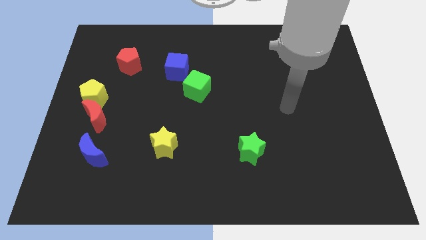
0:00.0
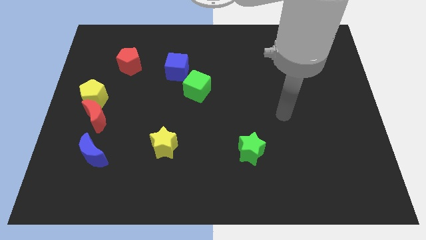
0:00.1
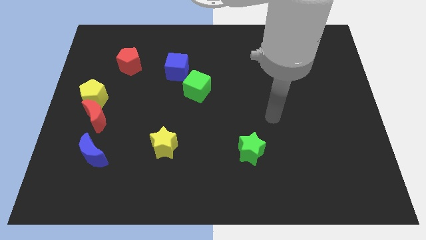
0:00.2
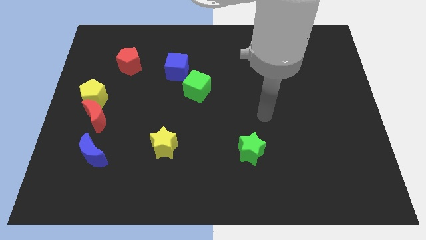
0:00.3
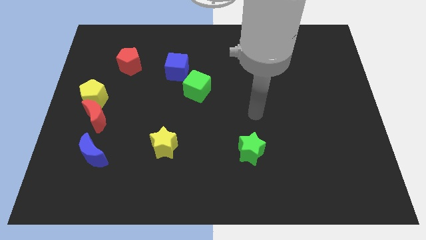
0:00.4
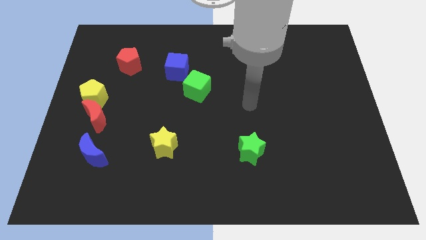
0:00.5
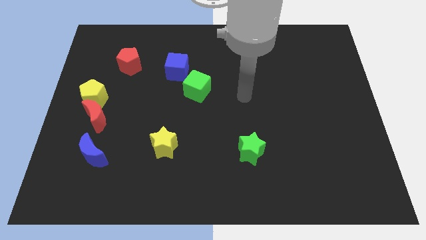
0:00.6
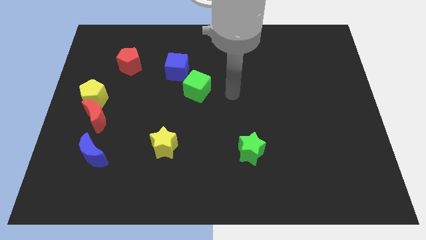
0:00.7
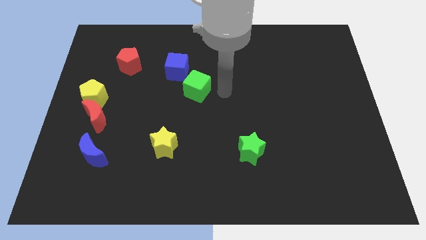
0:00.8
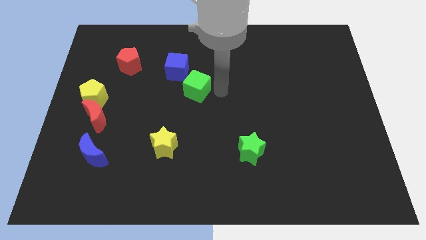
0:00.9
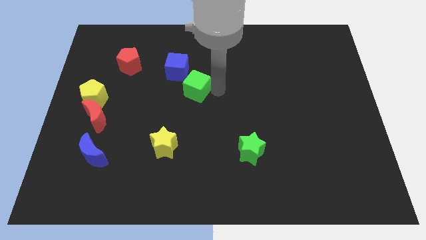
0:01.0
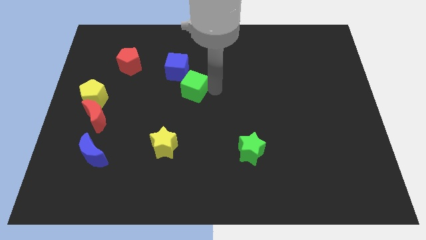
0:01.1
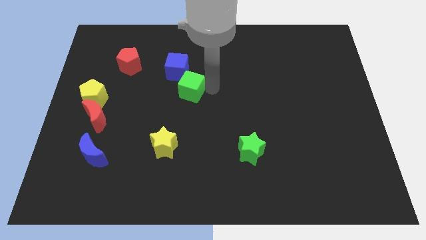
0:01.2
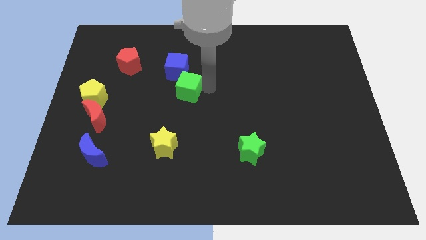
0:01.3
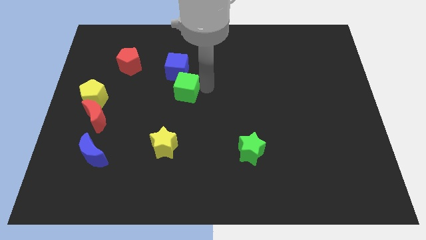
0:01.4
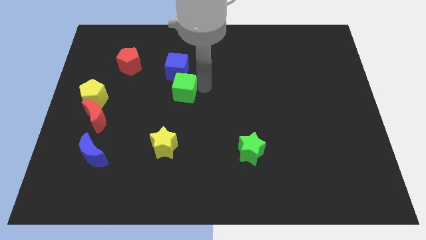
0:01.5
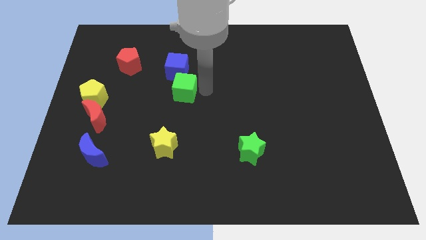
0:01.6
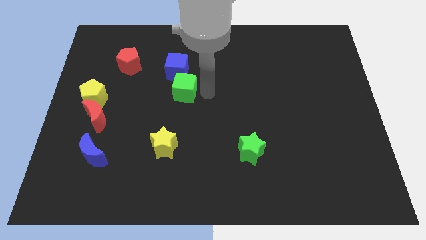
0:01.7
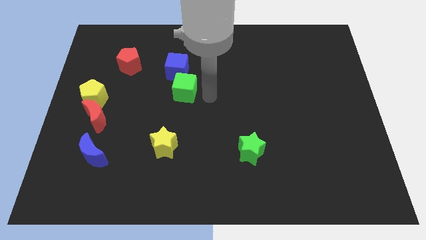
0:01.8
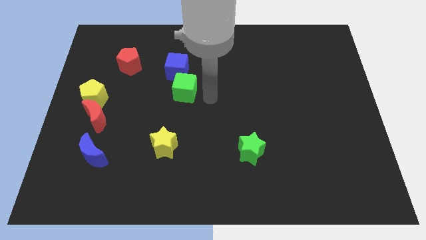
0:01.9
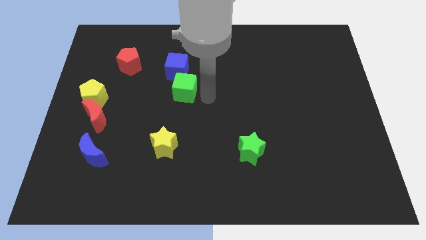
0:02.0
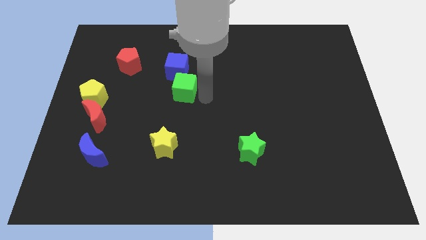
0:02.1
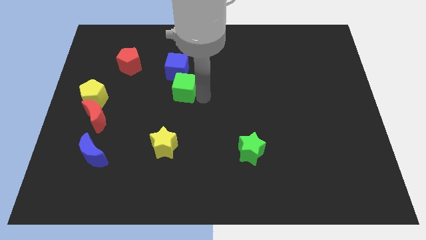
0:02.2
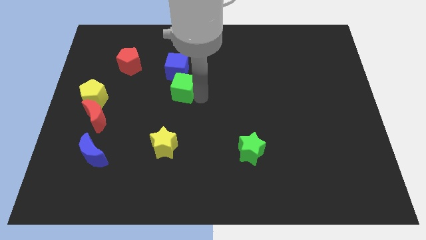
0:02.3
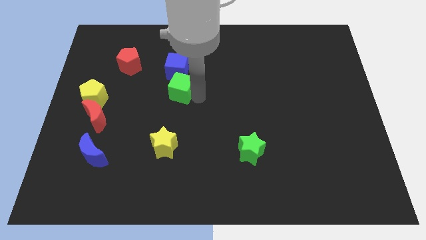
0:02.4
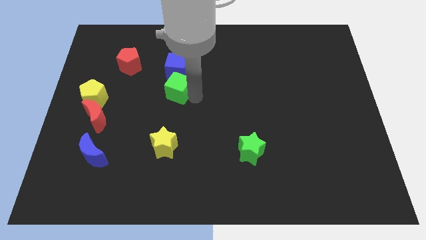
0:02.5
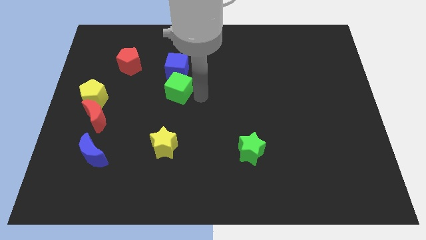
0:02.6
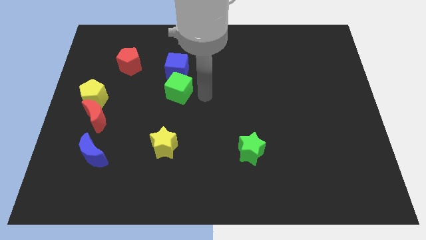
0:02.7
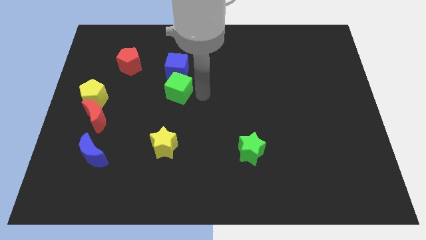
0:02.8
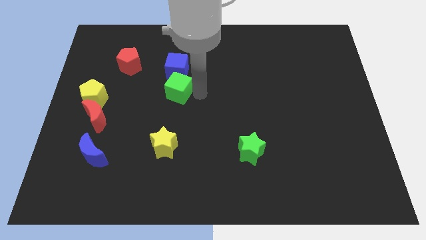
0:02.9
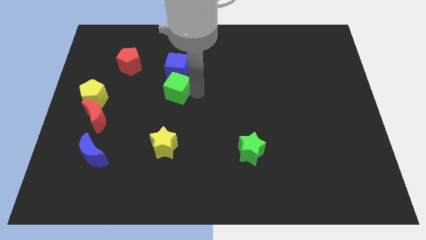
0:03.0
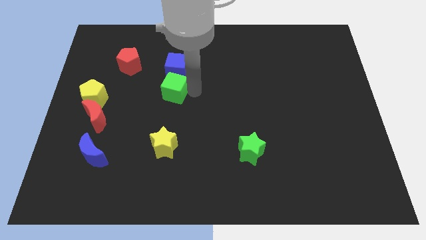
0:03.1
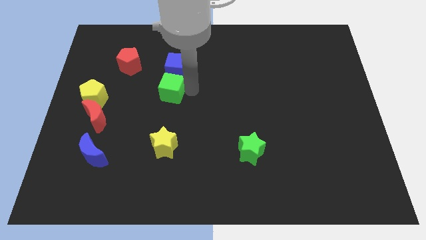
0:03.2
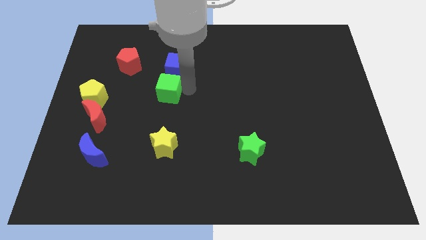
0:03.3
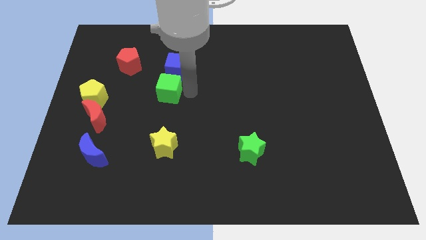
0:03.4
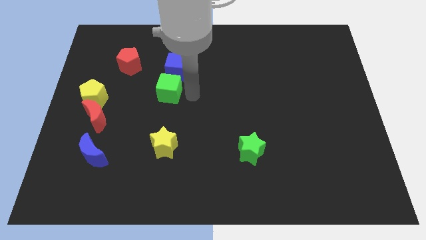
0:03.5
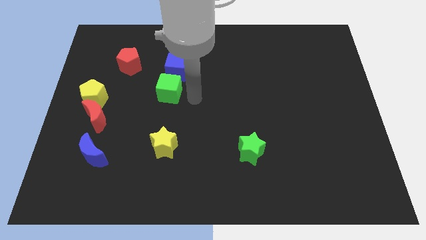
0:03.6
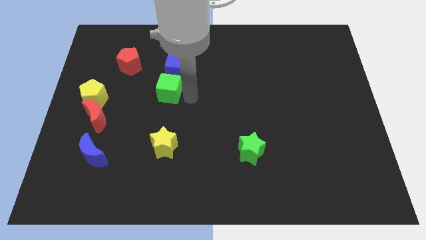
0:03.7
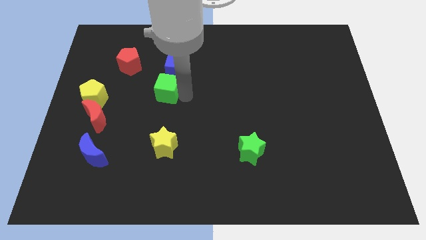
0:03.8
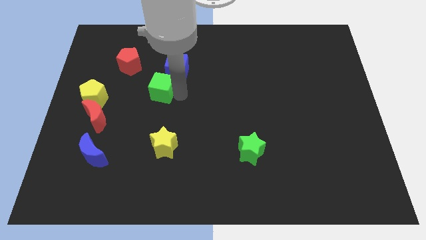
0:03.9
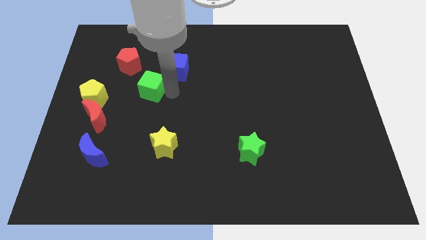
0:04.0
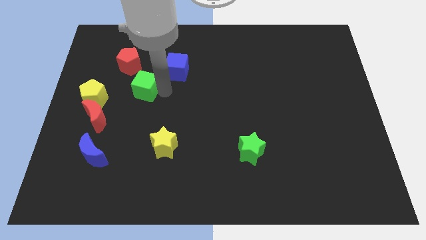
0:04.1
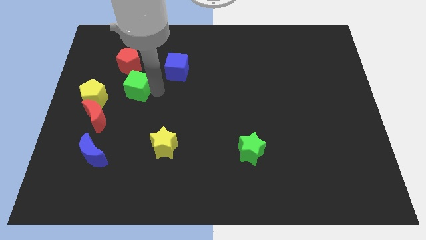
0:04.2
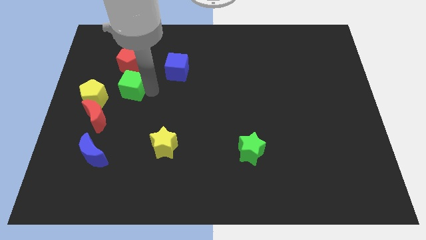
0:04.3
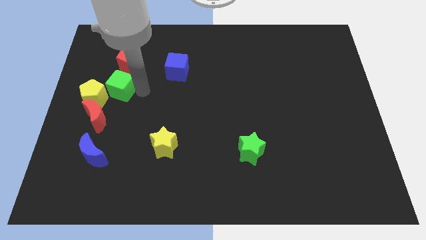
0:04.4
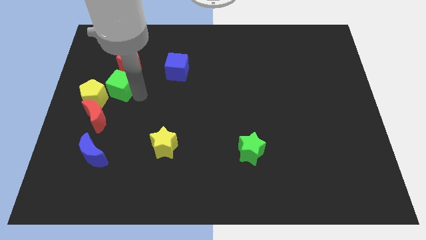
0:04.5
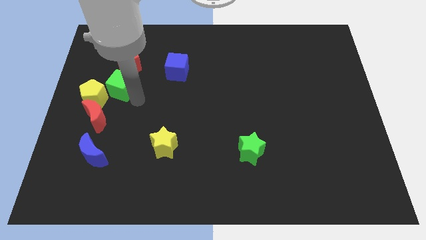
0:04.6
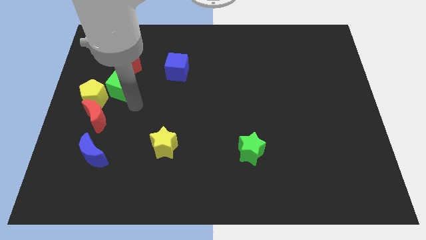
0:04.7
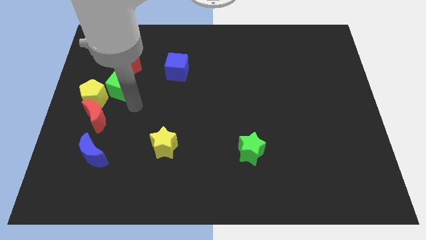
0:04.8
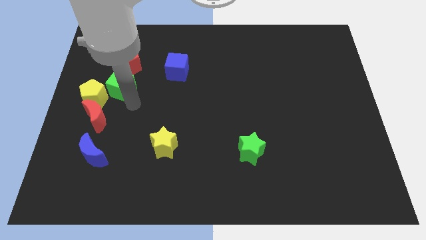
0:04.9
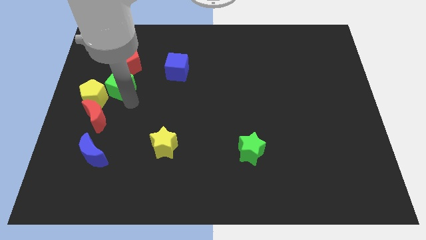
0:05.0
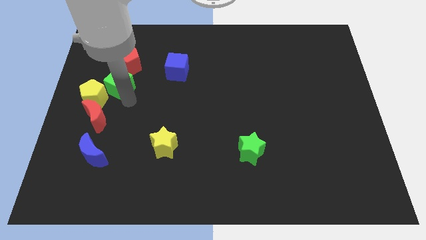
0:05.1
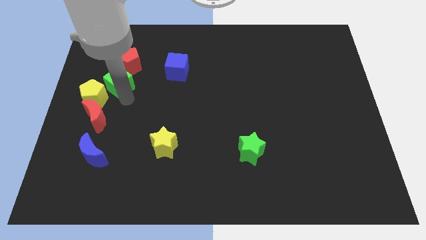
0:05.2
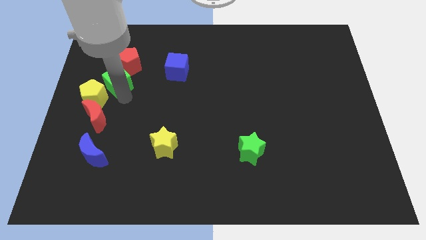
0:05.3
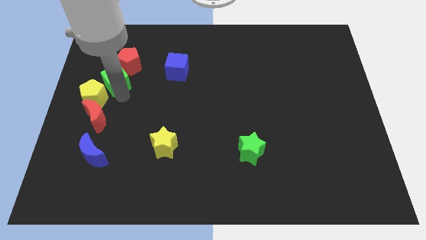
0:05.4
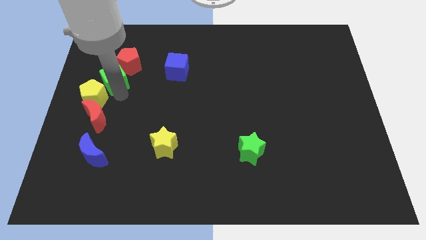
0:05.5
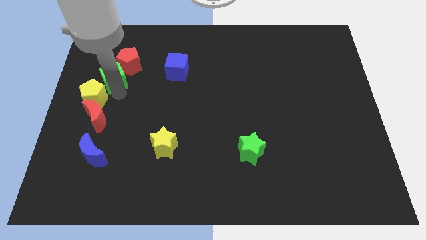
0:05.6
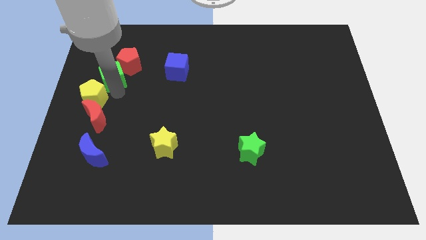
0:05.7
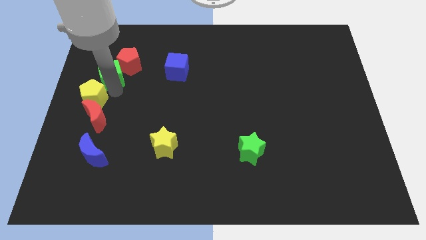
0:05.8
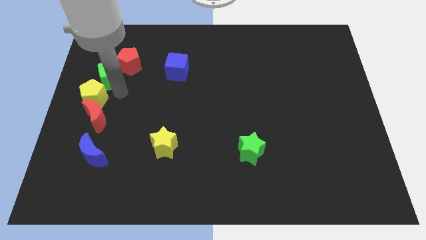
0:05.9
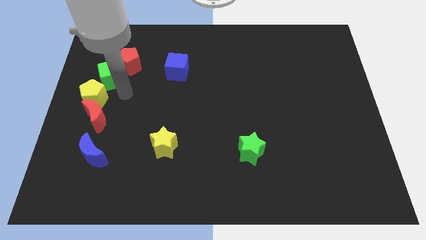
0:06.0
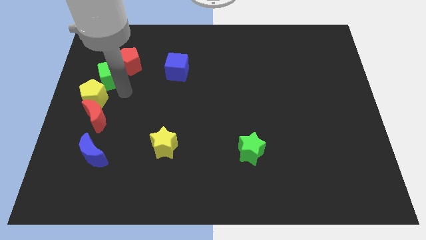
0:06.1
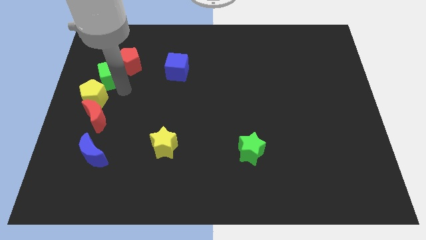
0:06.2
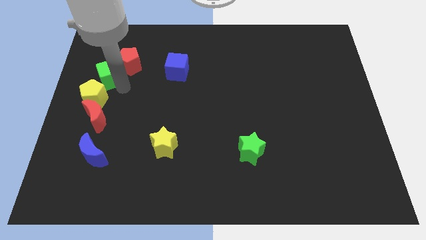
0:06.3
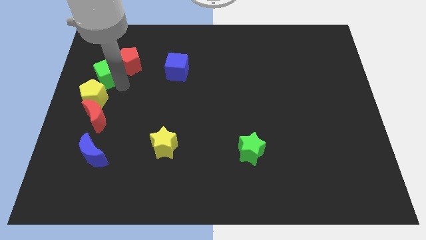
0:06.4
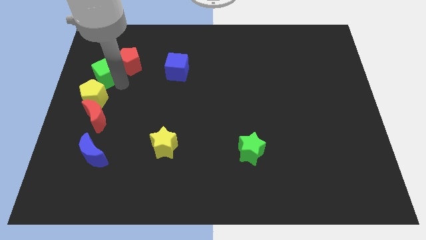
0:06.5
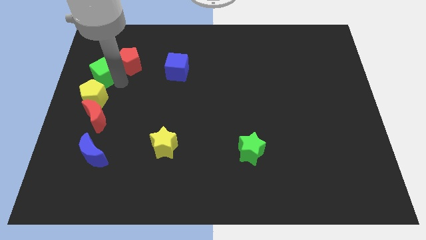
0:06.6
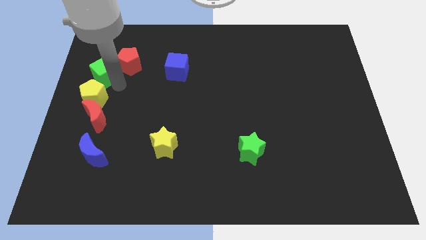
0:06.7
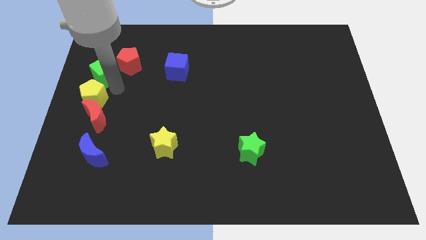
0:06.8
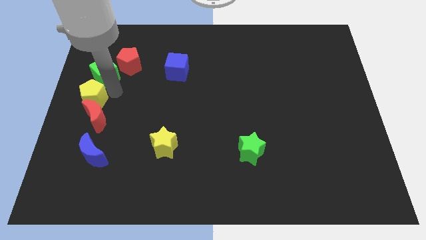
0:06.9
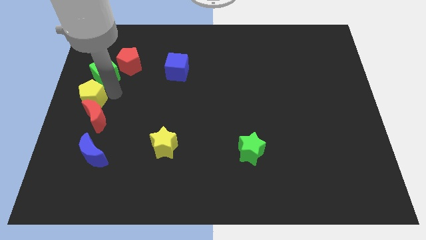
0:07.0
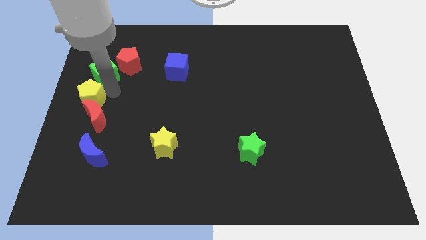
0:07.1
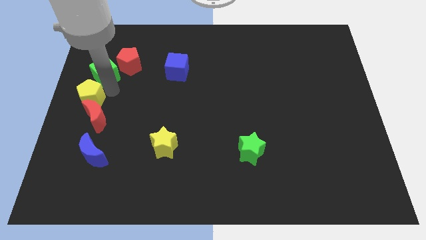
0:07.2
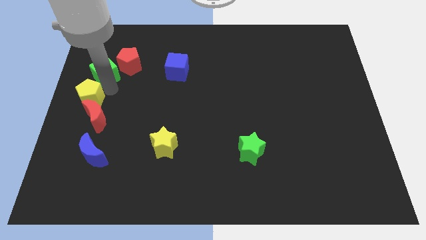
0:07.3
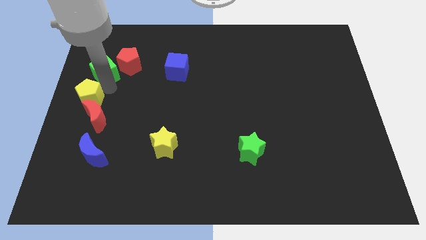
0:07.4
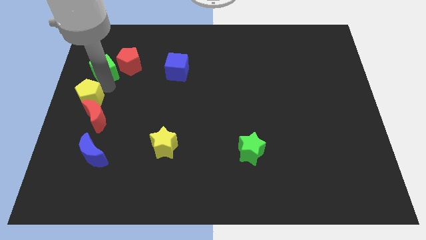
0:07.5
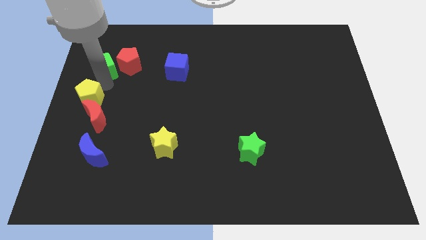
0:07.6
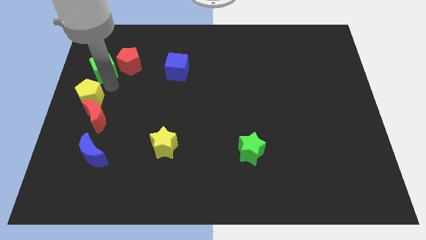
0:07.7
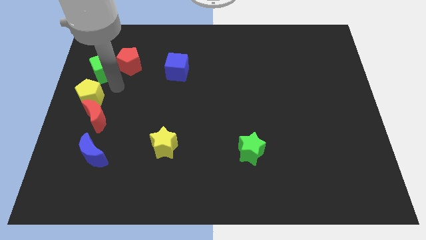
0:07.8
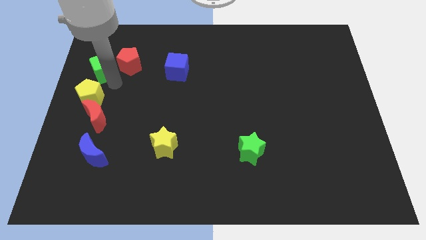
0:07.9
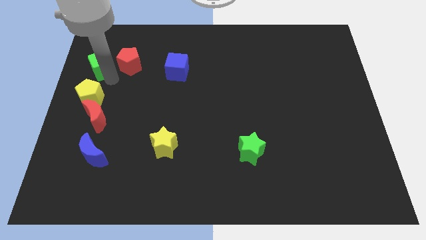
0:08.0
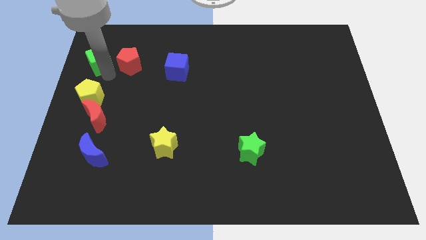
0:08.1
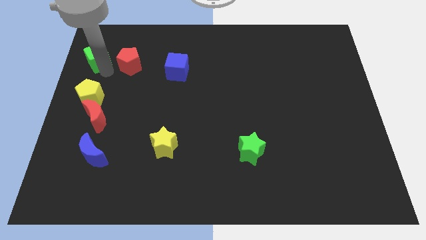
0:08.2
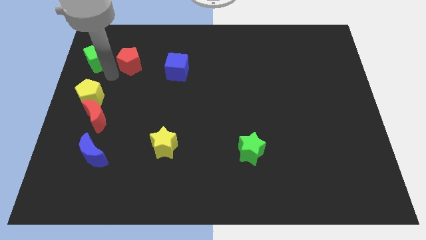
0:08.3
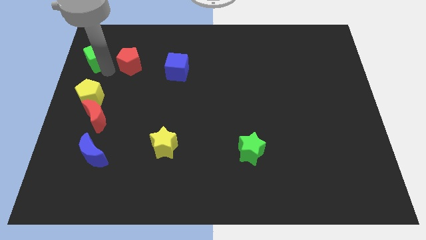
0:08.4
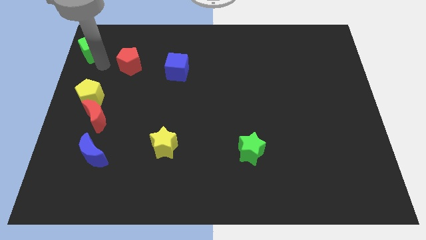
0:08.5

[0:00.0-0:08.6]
put the green cube to the top left of the board
